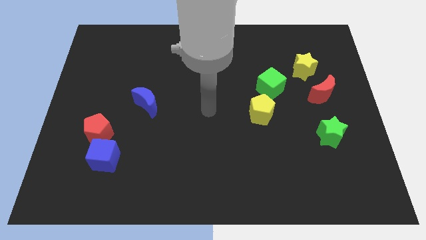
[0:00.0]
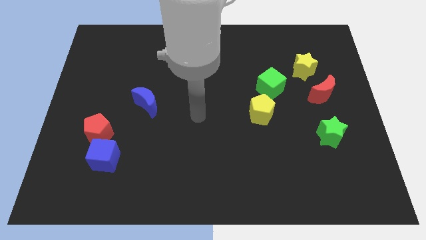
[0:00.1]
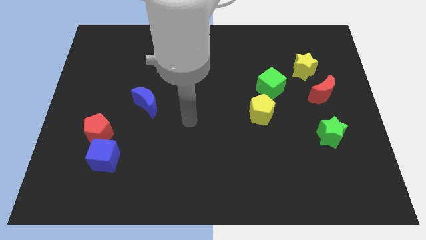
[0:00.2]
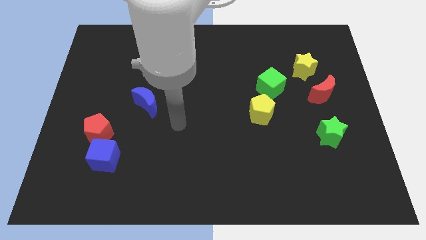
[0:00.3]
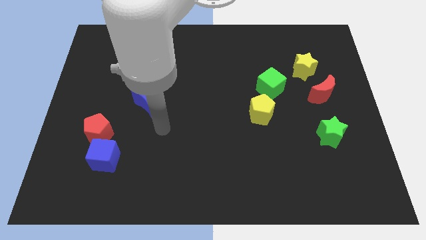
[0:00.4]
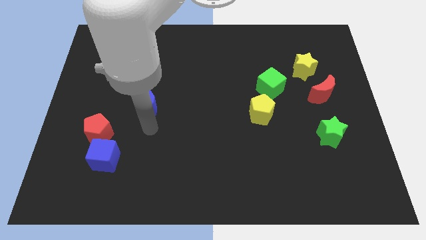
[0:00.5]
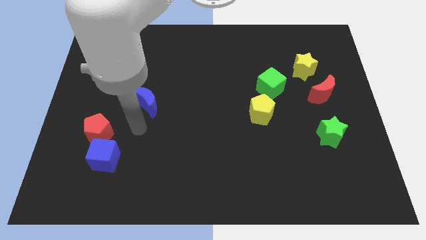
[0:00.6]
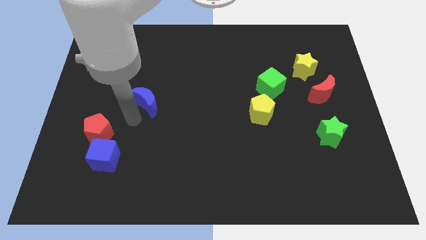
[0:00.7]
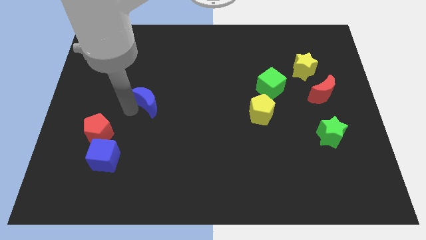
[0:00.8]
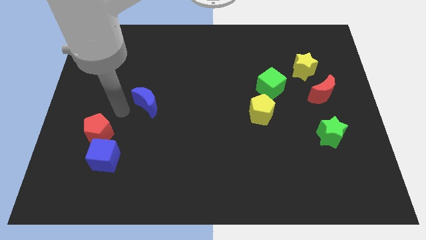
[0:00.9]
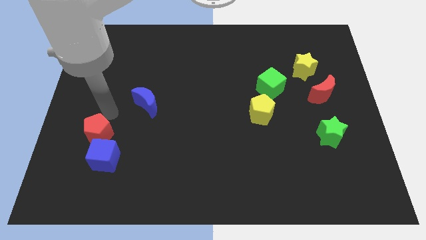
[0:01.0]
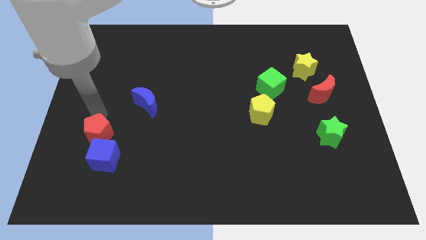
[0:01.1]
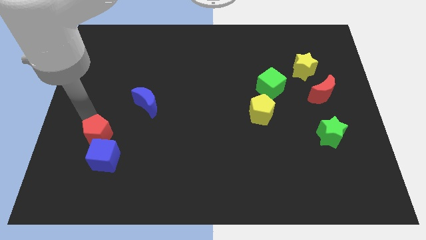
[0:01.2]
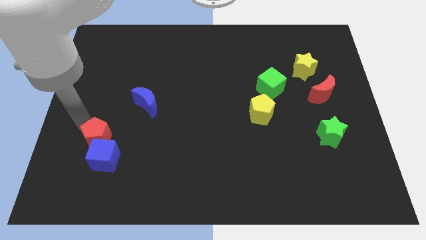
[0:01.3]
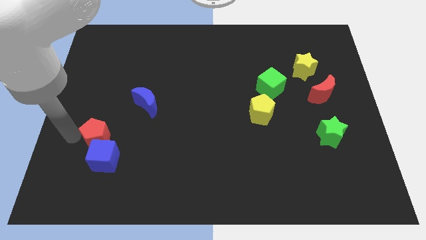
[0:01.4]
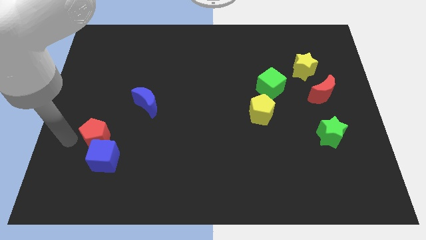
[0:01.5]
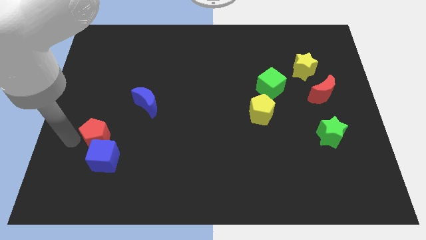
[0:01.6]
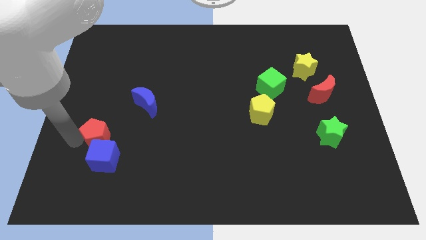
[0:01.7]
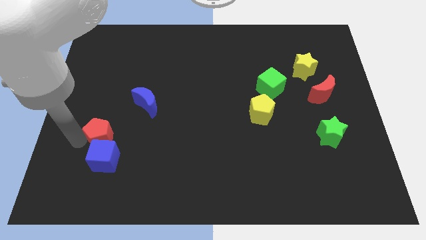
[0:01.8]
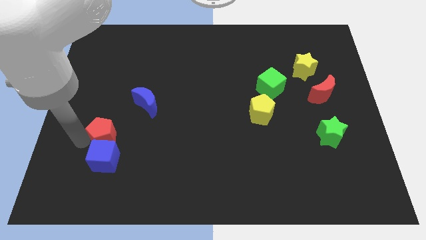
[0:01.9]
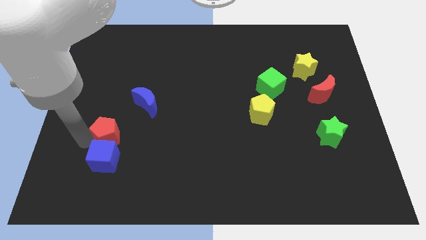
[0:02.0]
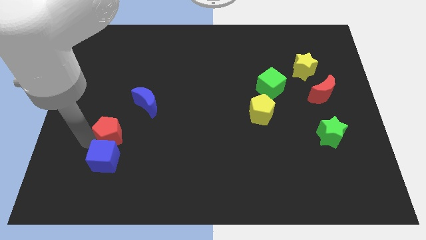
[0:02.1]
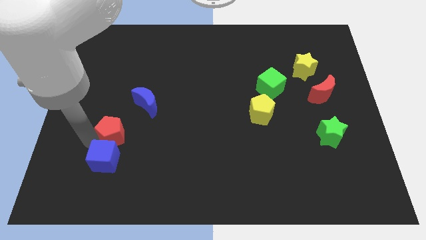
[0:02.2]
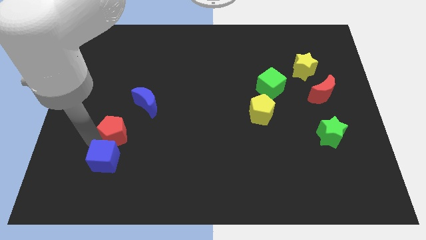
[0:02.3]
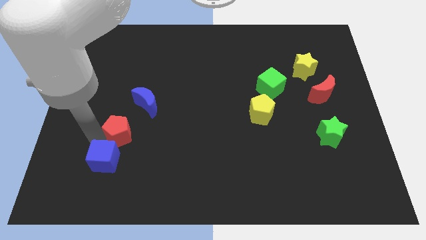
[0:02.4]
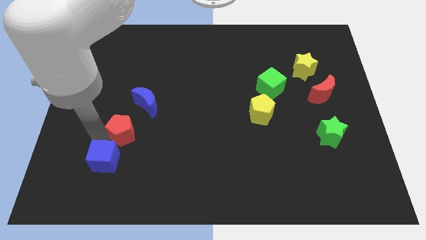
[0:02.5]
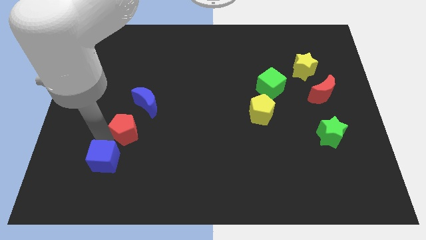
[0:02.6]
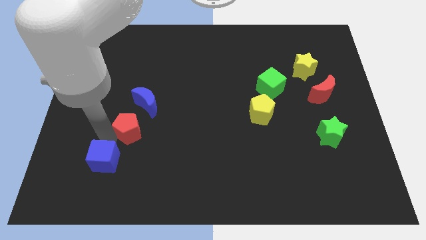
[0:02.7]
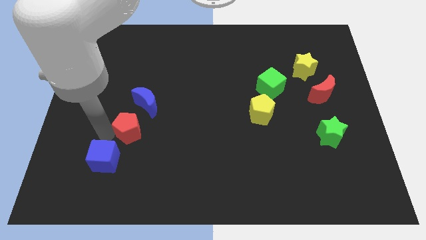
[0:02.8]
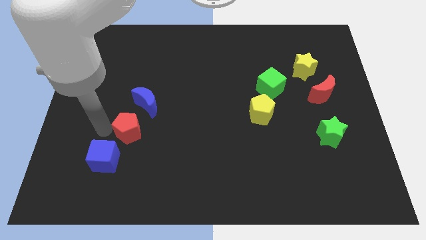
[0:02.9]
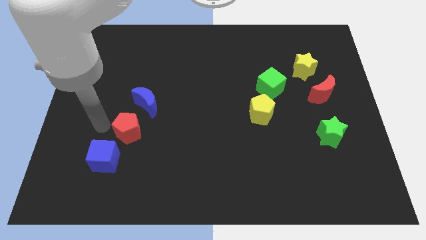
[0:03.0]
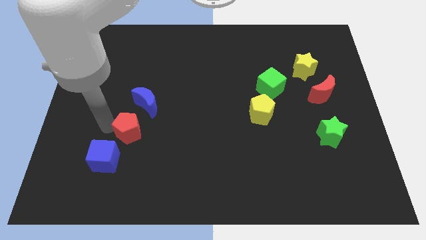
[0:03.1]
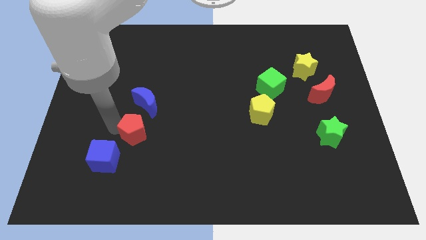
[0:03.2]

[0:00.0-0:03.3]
move the red pentagon to the right a little bit

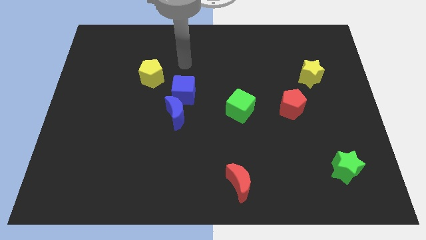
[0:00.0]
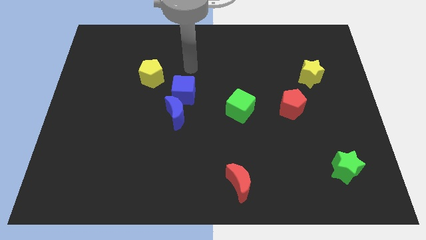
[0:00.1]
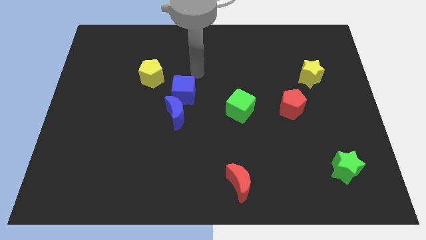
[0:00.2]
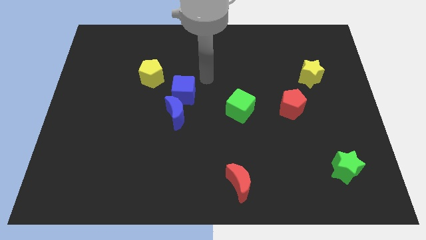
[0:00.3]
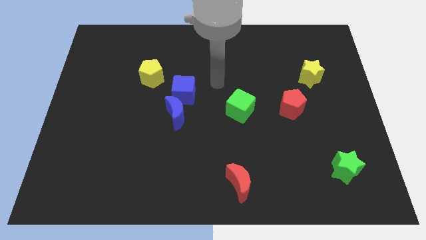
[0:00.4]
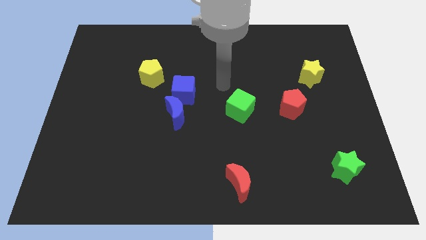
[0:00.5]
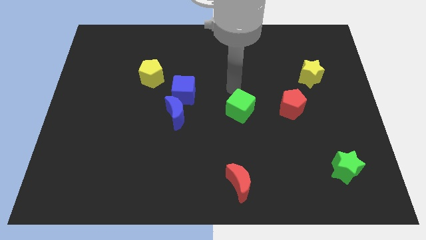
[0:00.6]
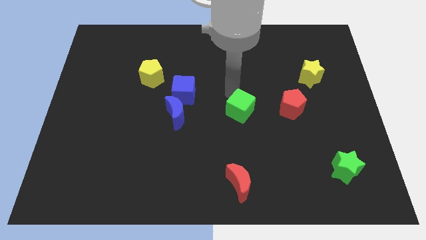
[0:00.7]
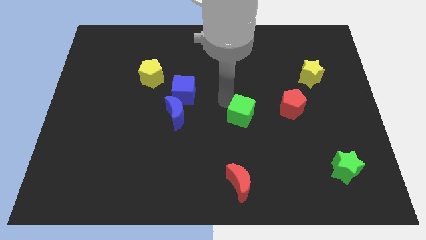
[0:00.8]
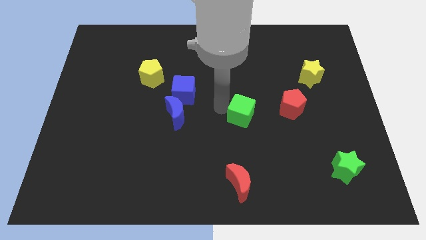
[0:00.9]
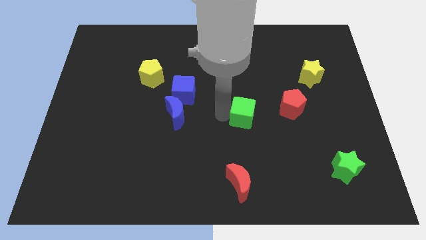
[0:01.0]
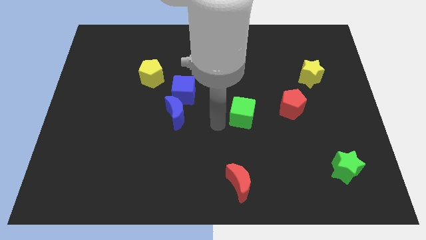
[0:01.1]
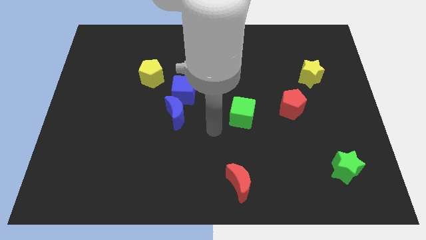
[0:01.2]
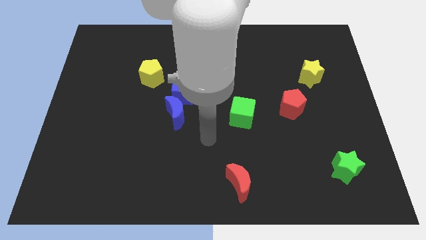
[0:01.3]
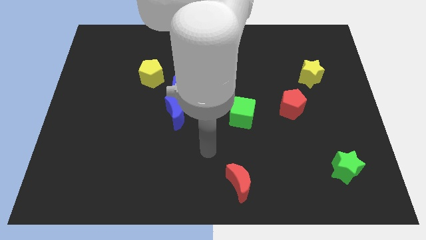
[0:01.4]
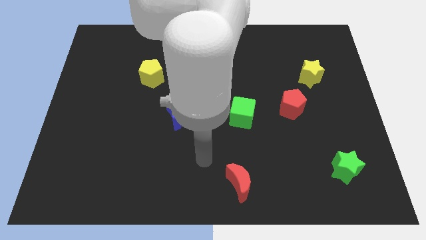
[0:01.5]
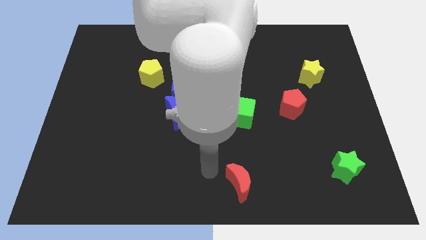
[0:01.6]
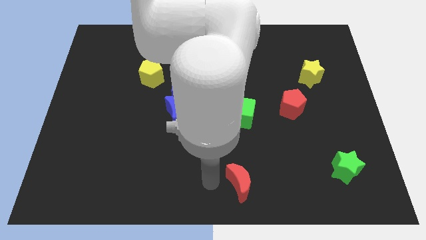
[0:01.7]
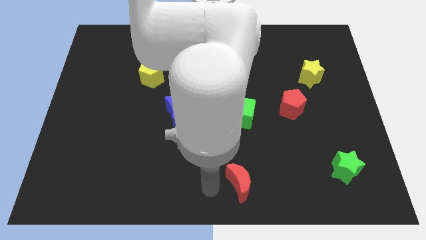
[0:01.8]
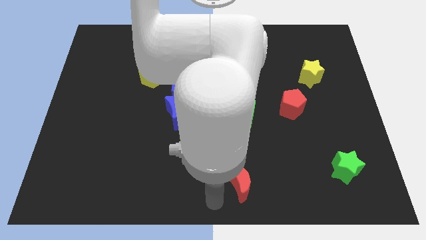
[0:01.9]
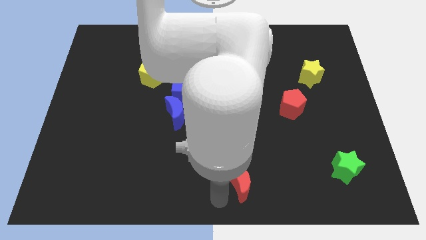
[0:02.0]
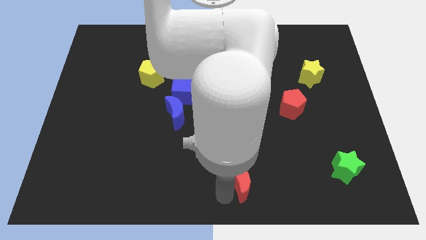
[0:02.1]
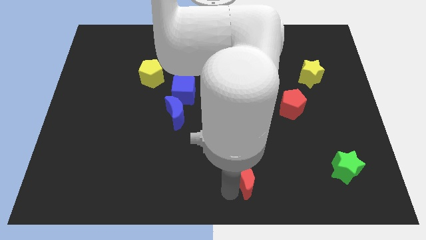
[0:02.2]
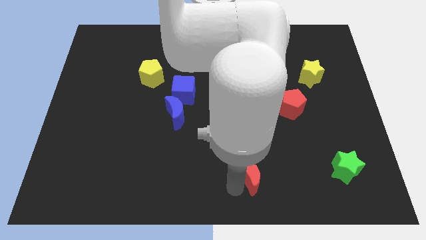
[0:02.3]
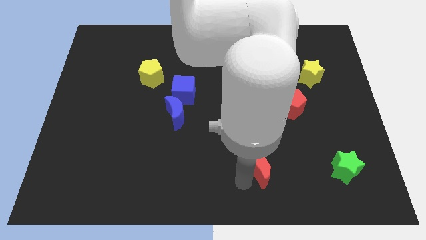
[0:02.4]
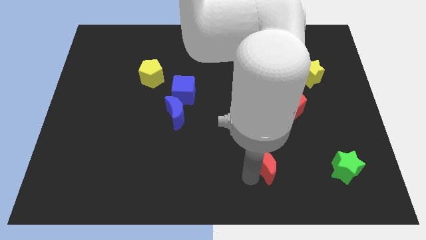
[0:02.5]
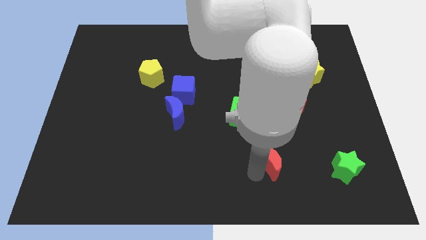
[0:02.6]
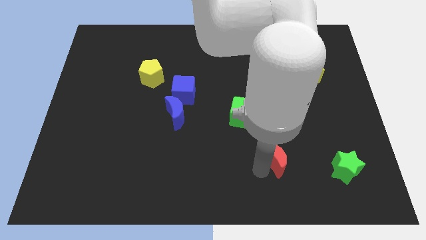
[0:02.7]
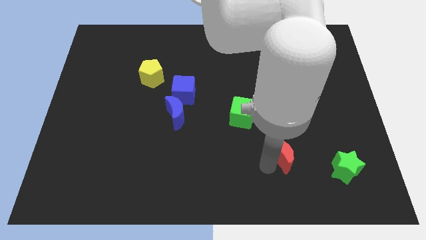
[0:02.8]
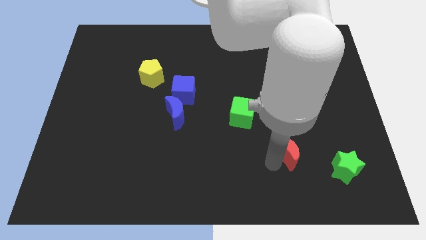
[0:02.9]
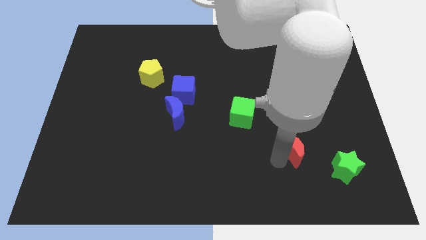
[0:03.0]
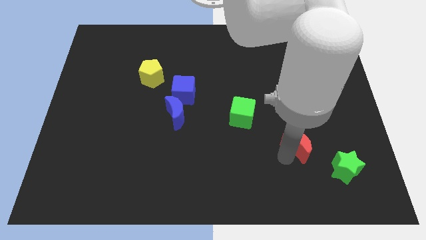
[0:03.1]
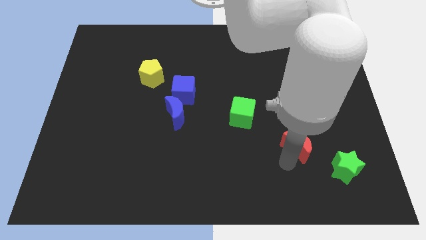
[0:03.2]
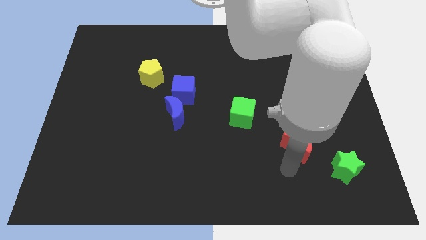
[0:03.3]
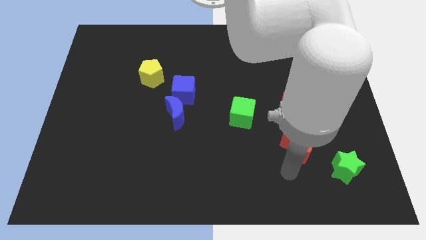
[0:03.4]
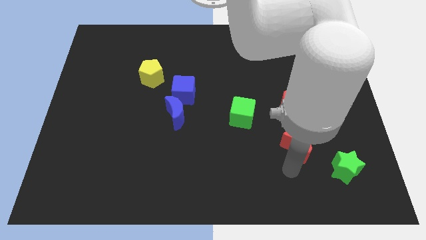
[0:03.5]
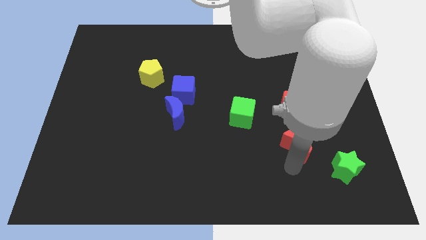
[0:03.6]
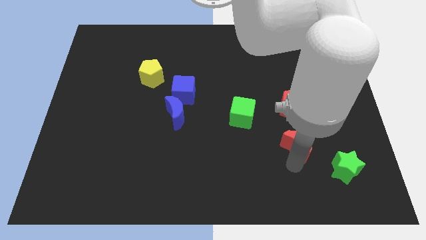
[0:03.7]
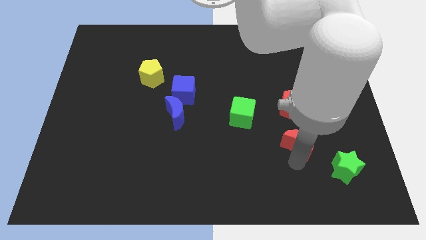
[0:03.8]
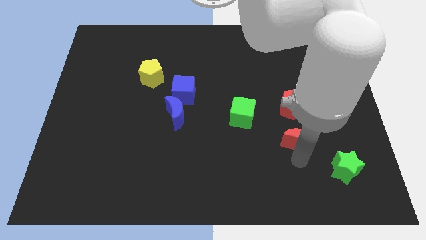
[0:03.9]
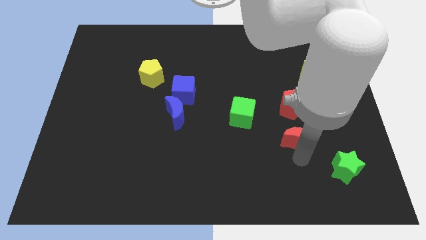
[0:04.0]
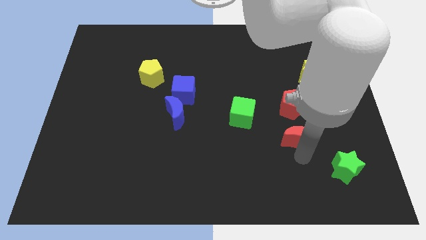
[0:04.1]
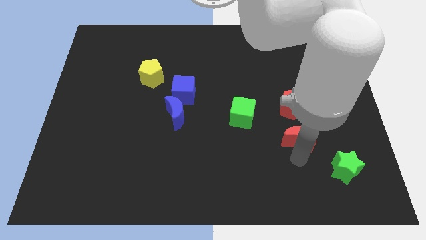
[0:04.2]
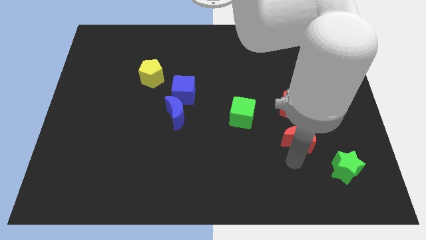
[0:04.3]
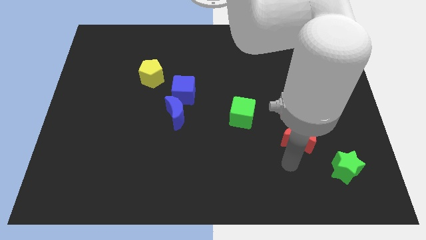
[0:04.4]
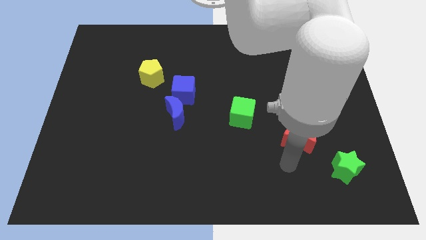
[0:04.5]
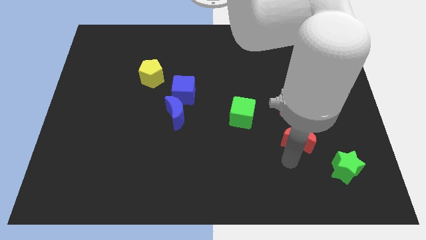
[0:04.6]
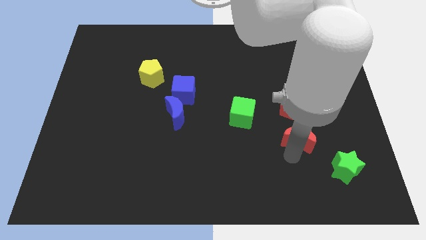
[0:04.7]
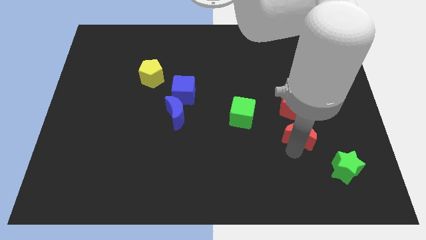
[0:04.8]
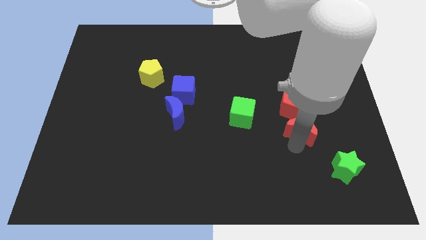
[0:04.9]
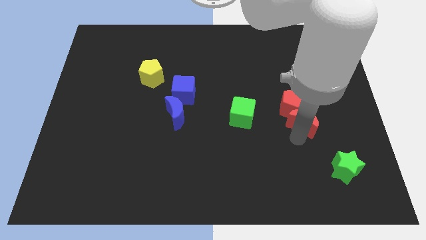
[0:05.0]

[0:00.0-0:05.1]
slide the red moon up and then right
